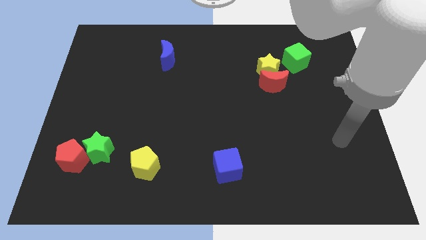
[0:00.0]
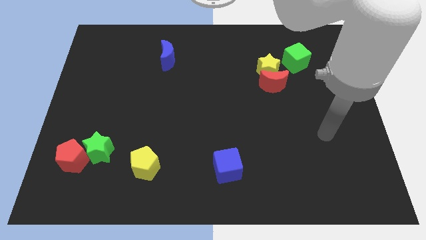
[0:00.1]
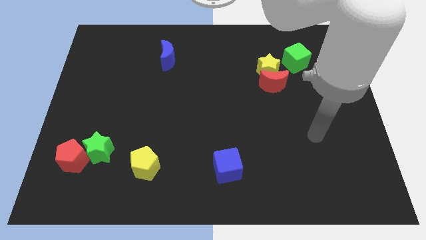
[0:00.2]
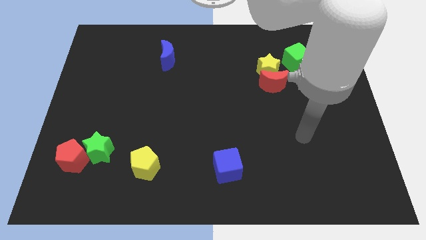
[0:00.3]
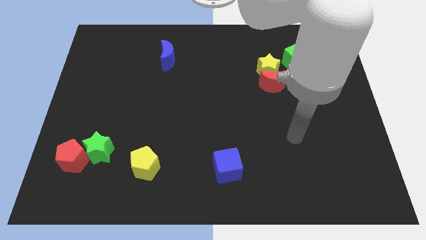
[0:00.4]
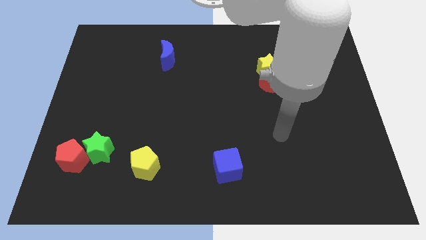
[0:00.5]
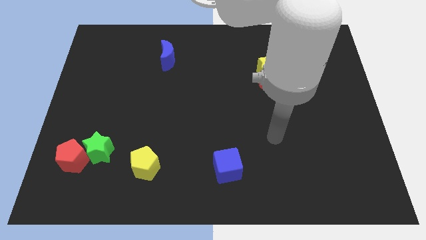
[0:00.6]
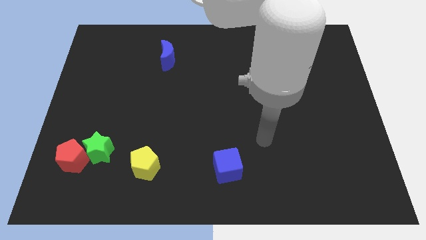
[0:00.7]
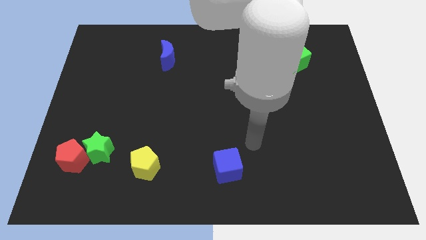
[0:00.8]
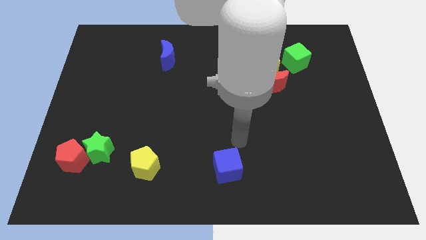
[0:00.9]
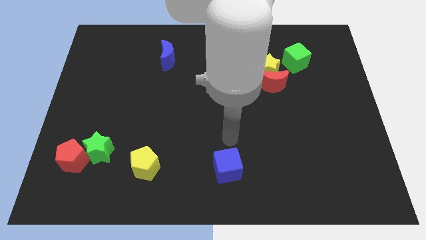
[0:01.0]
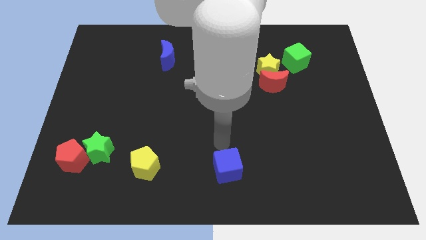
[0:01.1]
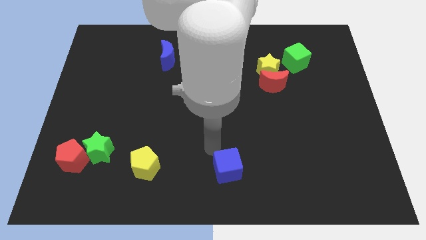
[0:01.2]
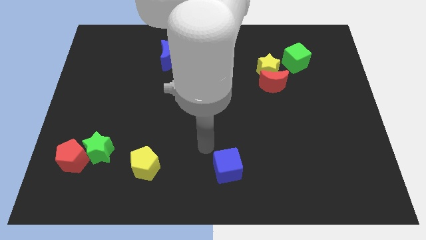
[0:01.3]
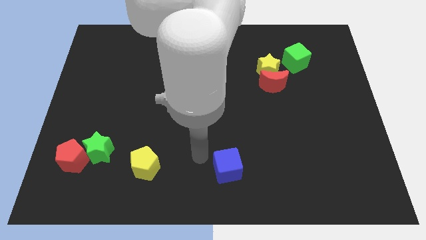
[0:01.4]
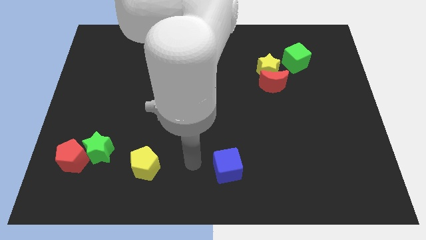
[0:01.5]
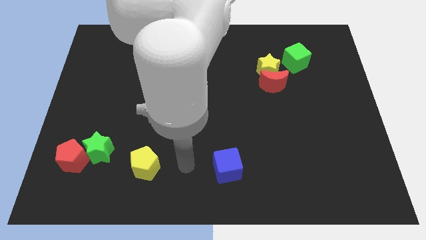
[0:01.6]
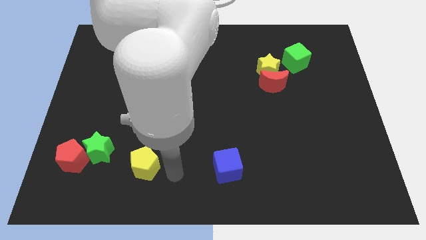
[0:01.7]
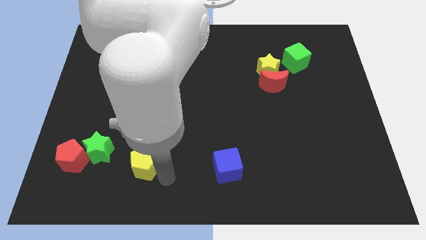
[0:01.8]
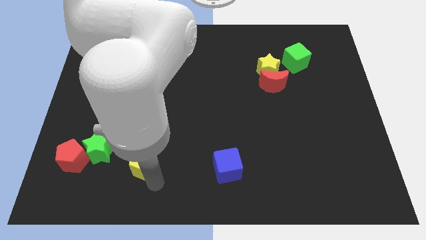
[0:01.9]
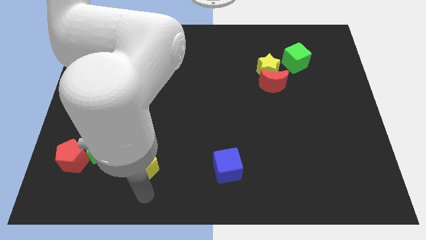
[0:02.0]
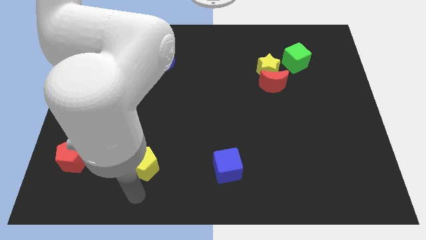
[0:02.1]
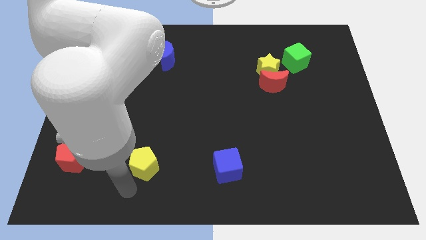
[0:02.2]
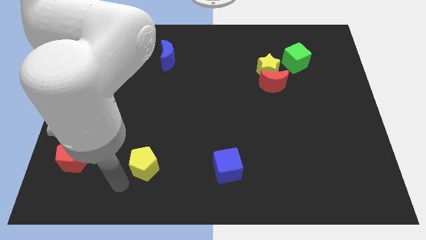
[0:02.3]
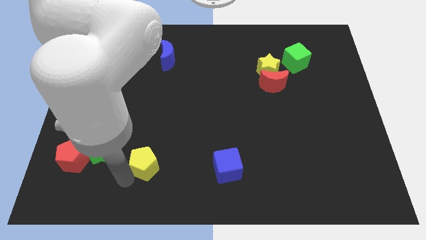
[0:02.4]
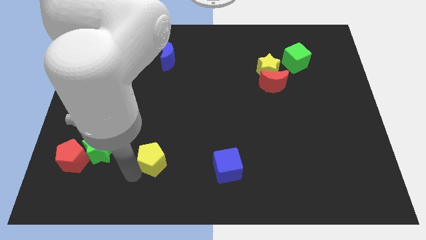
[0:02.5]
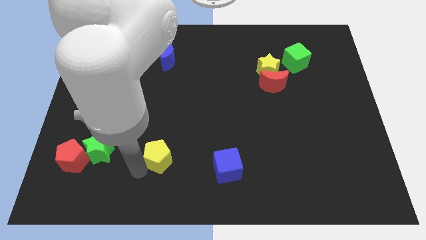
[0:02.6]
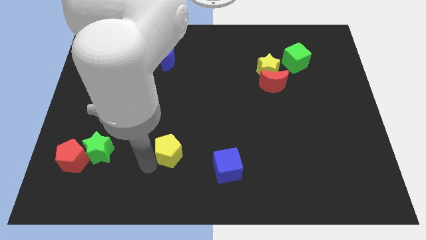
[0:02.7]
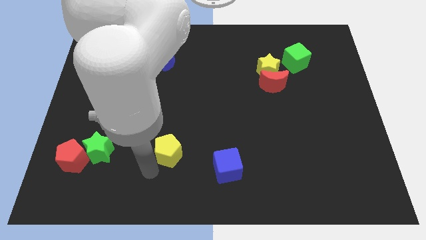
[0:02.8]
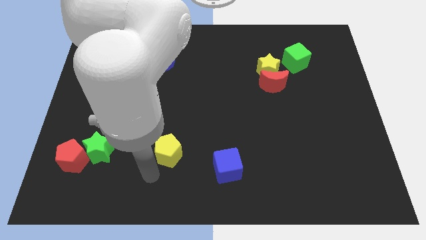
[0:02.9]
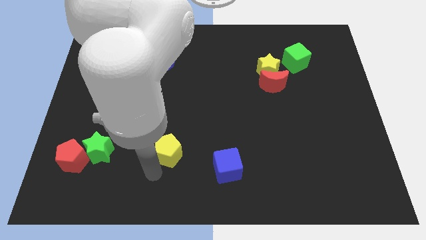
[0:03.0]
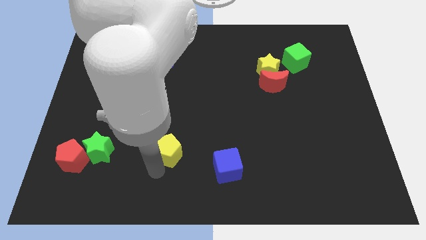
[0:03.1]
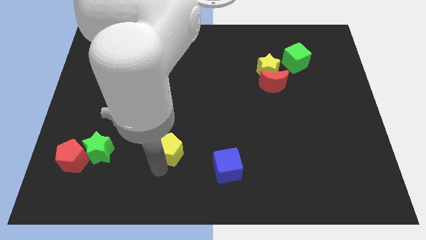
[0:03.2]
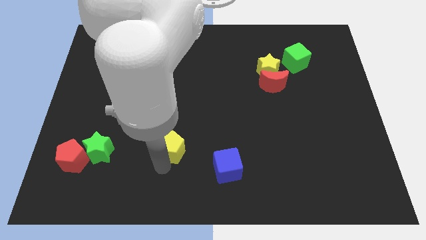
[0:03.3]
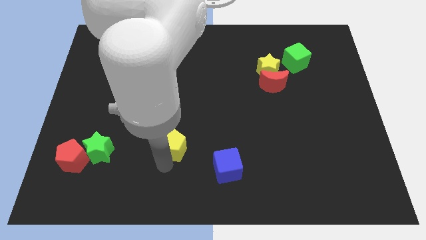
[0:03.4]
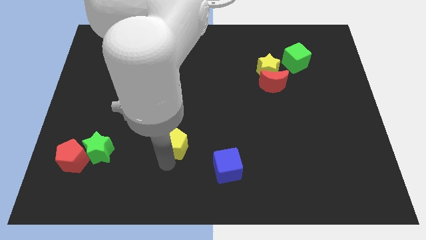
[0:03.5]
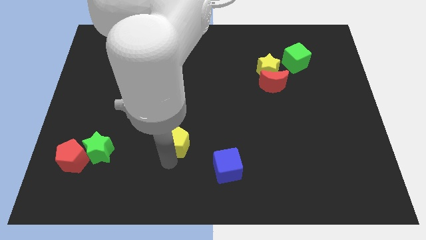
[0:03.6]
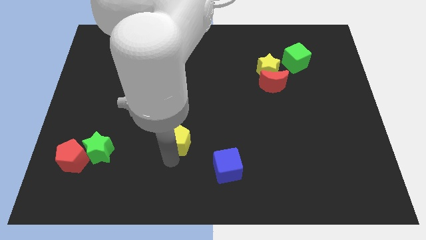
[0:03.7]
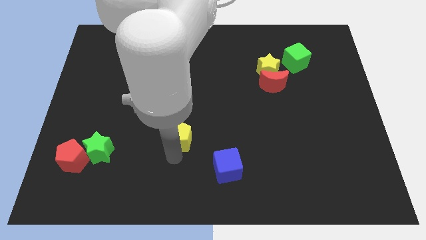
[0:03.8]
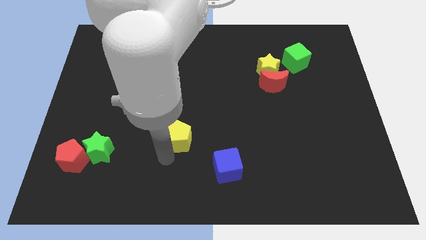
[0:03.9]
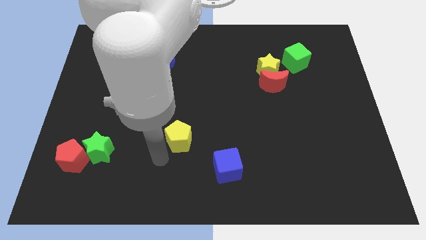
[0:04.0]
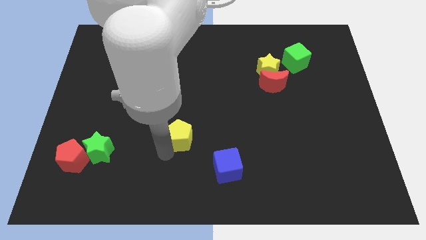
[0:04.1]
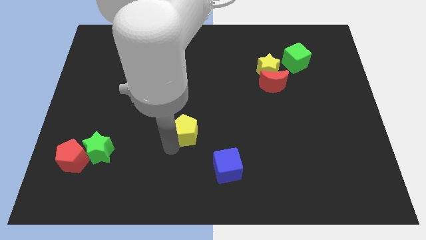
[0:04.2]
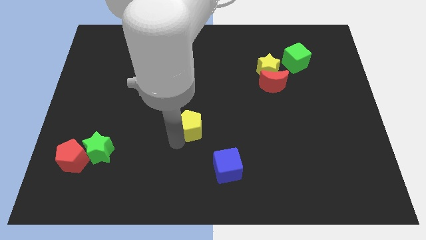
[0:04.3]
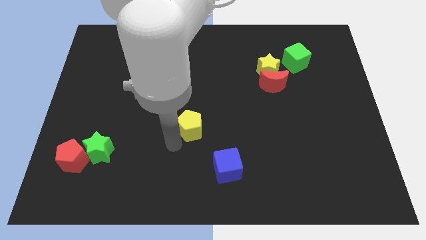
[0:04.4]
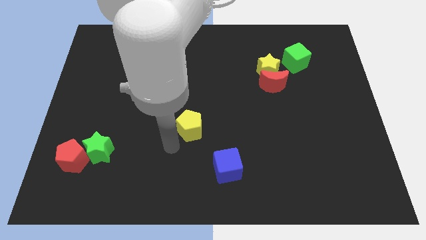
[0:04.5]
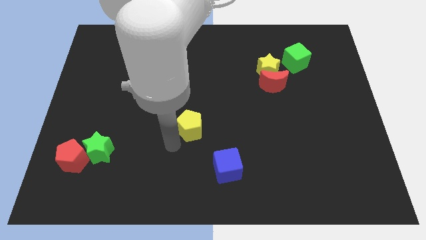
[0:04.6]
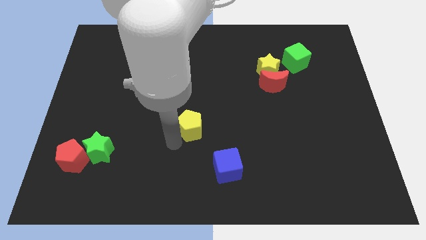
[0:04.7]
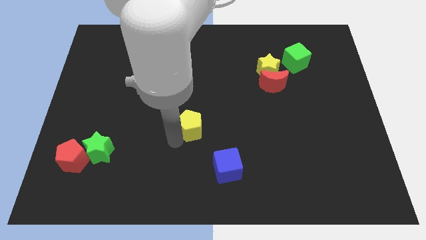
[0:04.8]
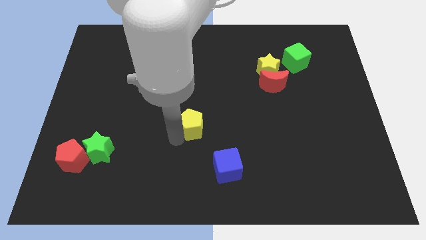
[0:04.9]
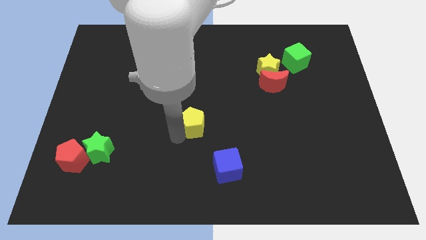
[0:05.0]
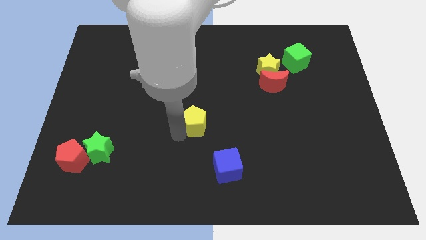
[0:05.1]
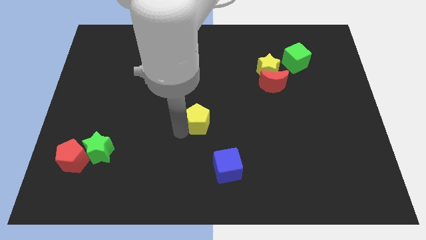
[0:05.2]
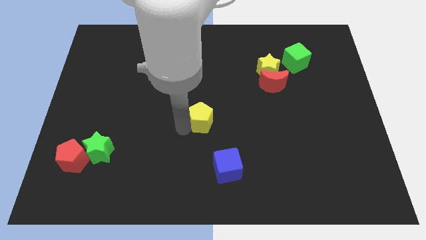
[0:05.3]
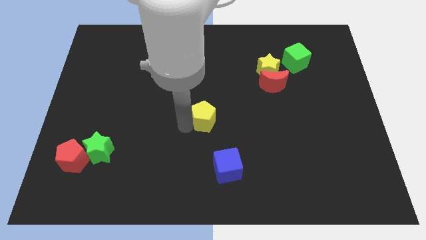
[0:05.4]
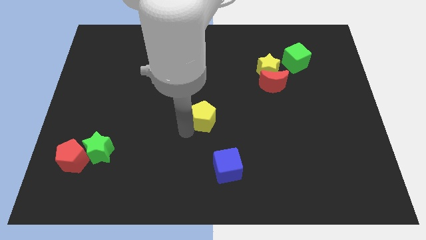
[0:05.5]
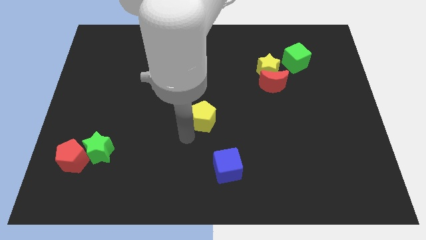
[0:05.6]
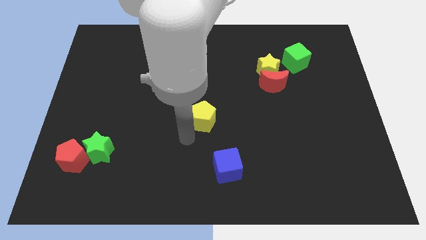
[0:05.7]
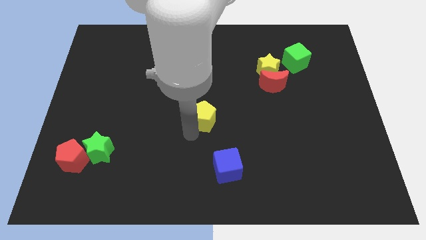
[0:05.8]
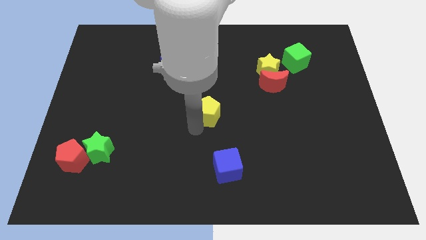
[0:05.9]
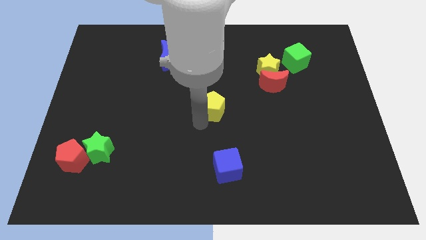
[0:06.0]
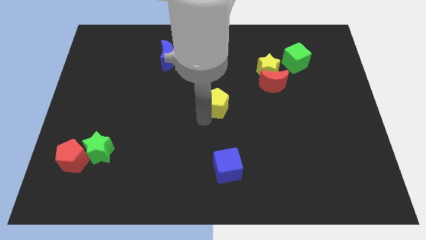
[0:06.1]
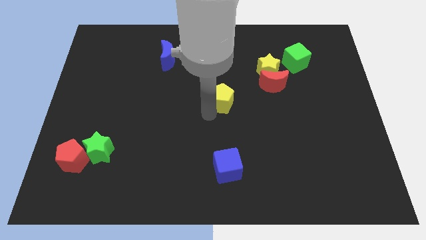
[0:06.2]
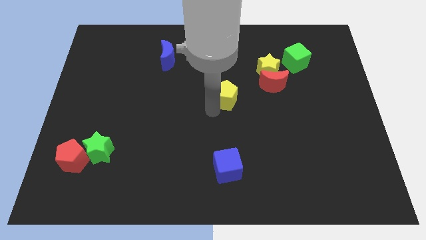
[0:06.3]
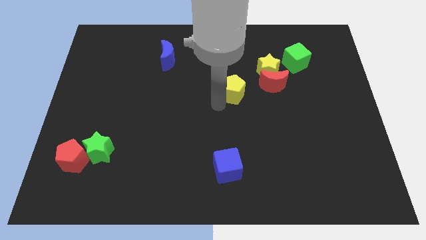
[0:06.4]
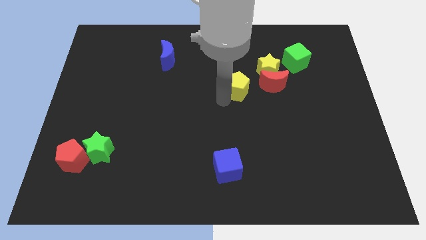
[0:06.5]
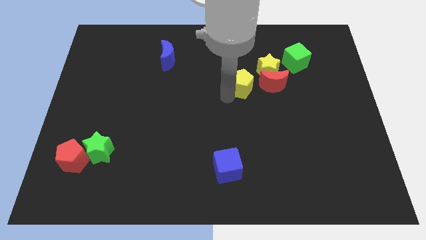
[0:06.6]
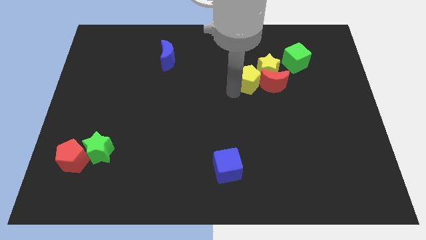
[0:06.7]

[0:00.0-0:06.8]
slide the yellow pentagon close to the yellow star
